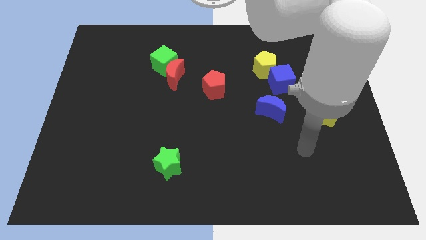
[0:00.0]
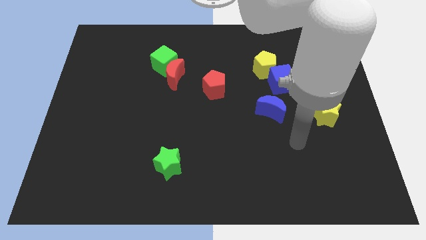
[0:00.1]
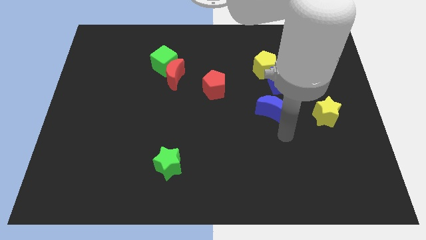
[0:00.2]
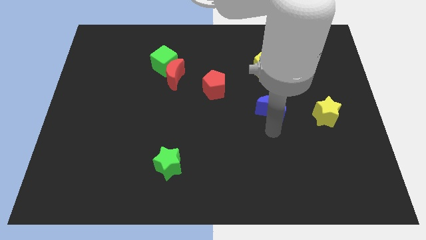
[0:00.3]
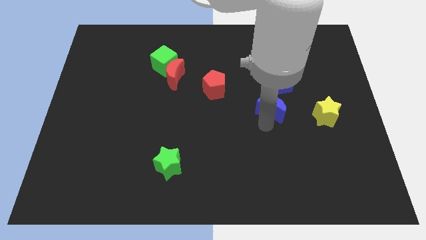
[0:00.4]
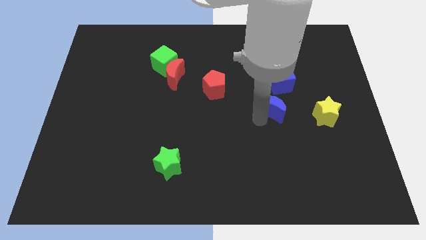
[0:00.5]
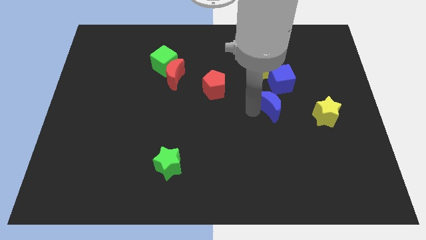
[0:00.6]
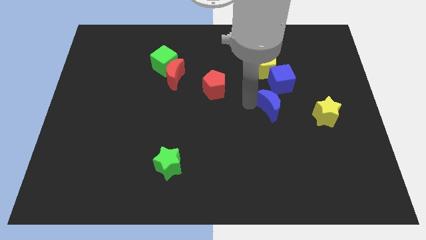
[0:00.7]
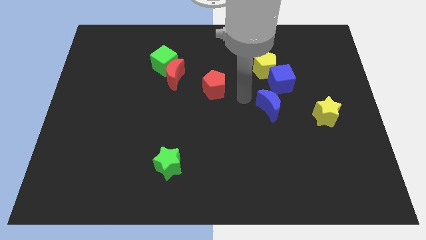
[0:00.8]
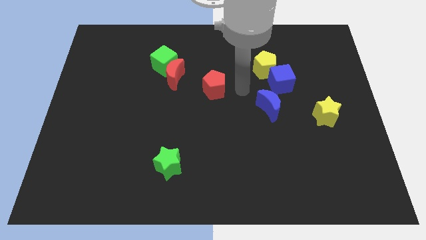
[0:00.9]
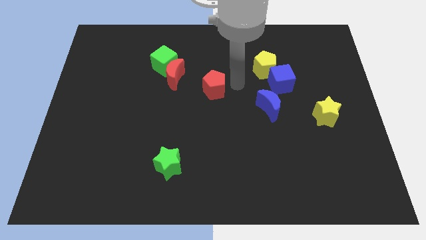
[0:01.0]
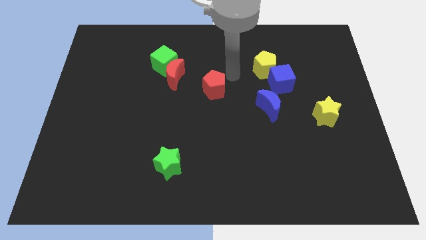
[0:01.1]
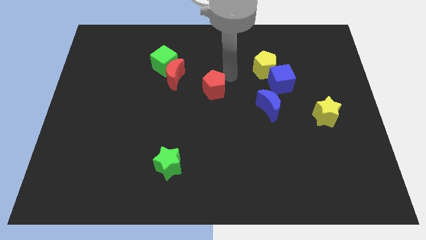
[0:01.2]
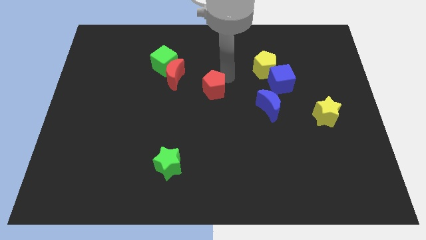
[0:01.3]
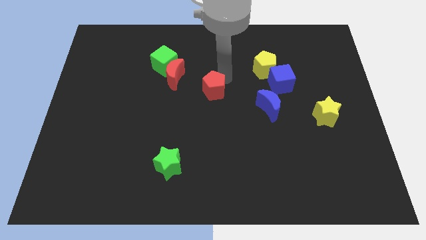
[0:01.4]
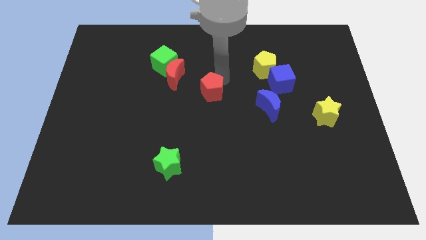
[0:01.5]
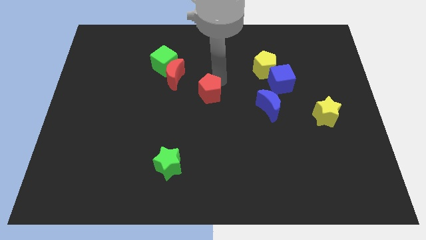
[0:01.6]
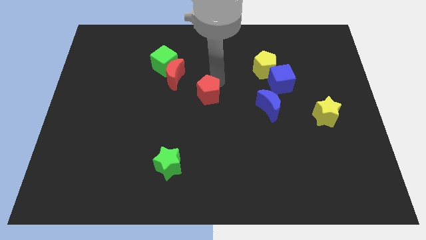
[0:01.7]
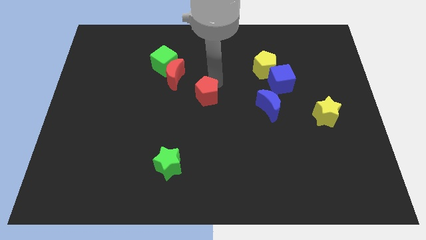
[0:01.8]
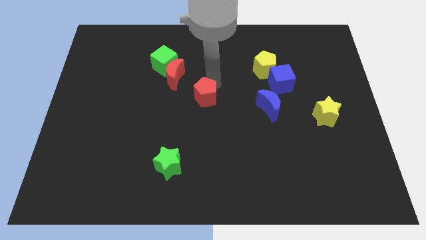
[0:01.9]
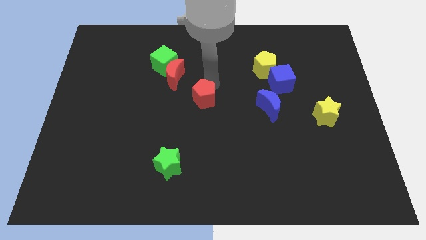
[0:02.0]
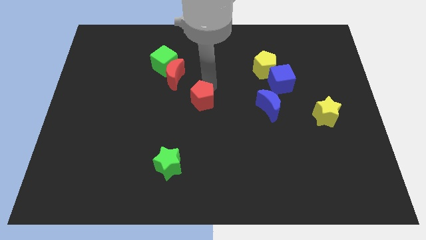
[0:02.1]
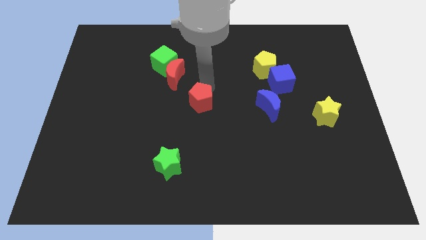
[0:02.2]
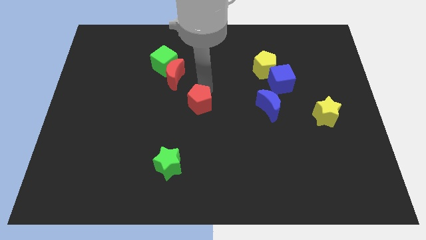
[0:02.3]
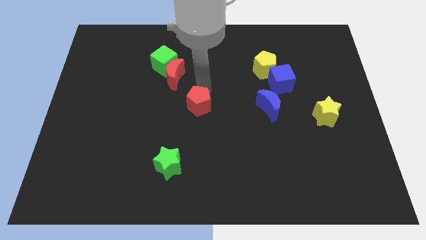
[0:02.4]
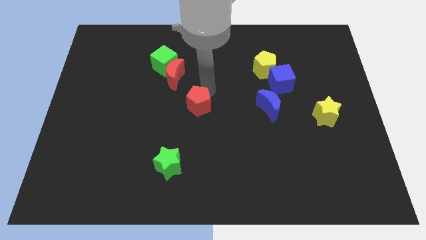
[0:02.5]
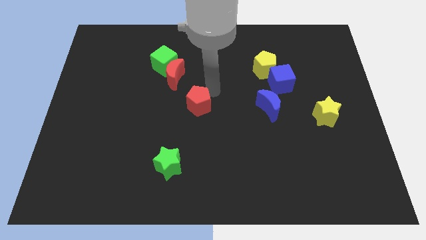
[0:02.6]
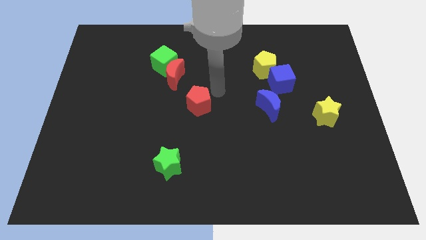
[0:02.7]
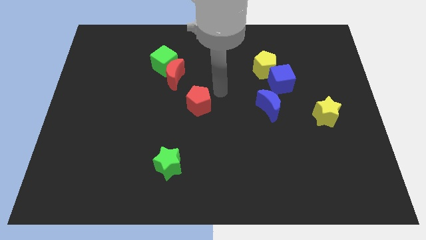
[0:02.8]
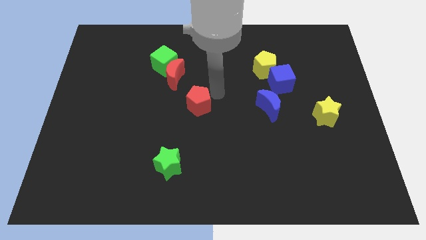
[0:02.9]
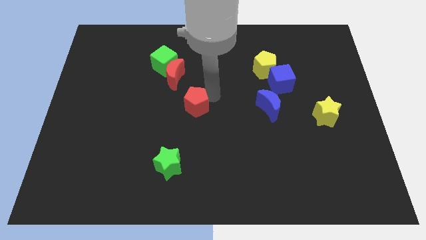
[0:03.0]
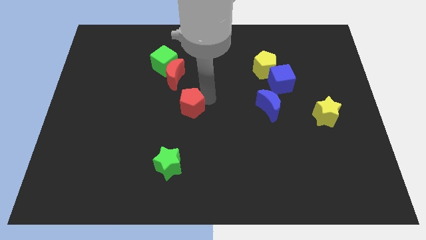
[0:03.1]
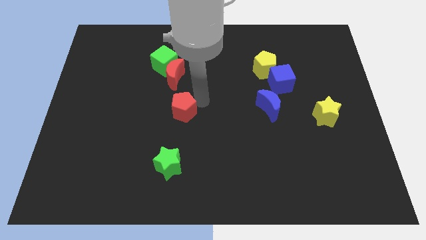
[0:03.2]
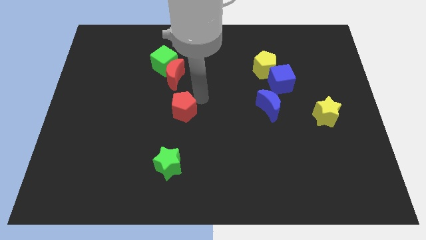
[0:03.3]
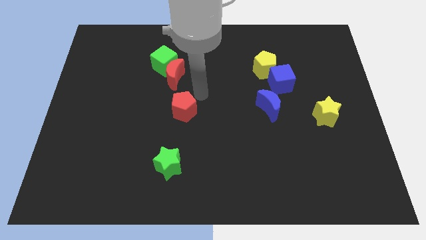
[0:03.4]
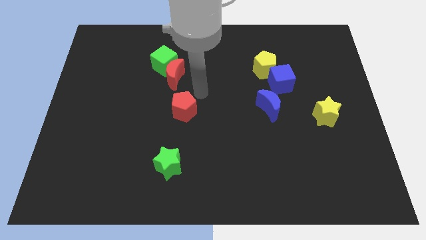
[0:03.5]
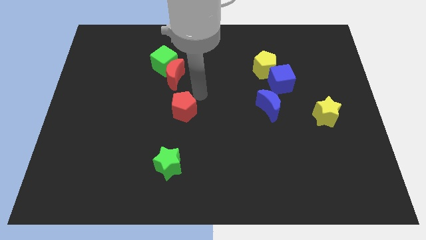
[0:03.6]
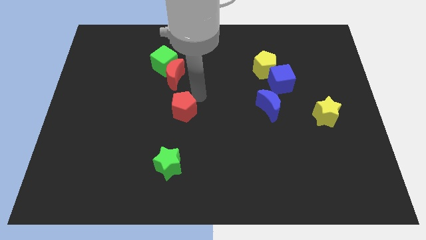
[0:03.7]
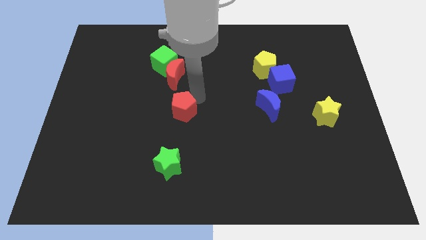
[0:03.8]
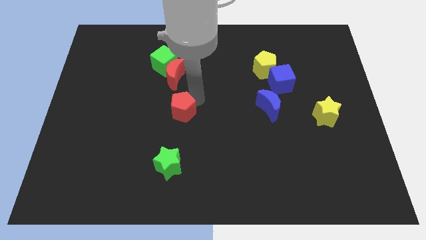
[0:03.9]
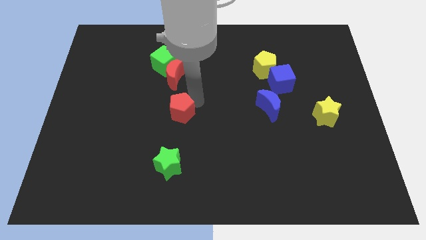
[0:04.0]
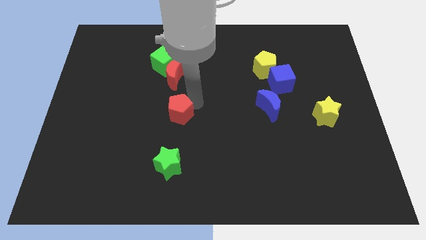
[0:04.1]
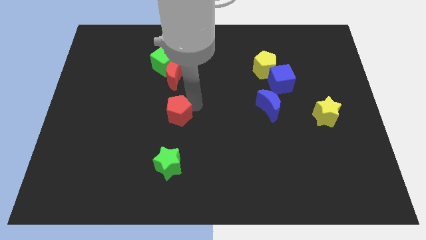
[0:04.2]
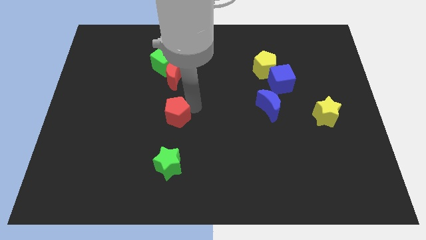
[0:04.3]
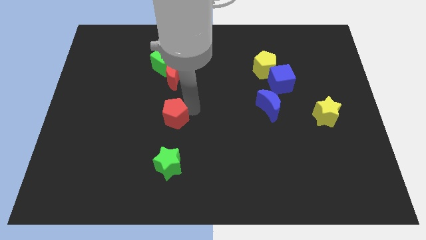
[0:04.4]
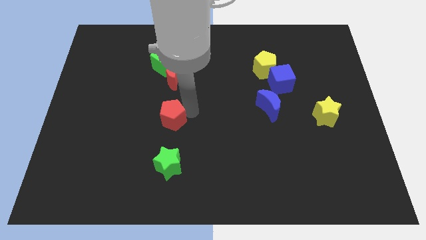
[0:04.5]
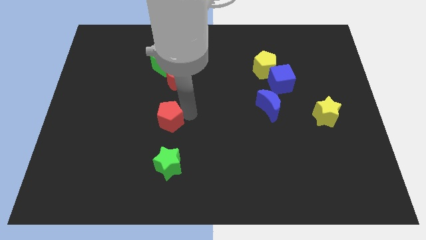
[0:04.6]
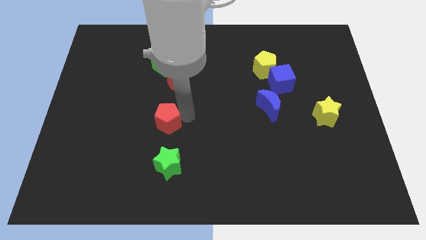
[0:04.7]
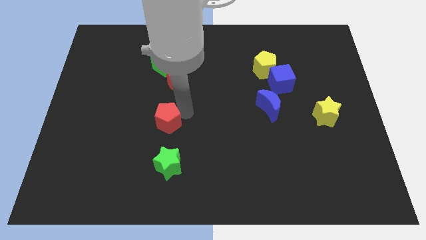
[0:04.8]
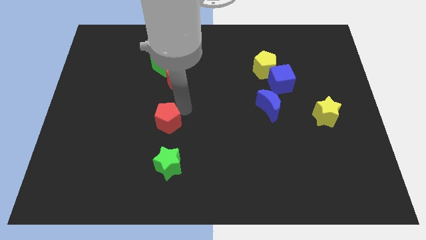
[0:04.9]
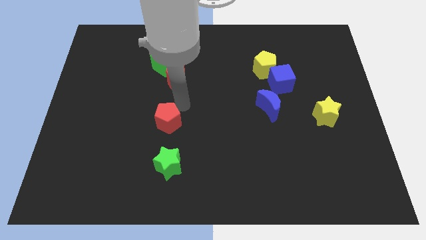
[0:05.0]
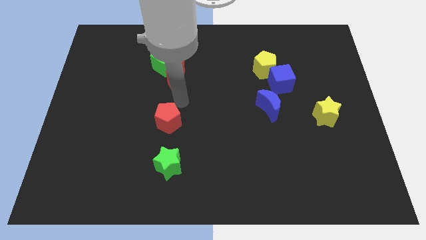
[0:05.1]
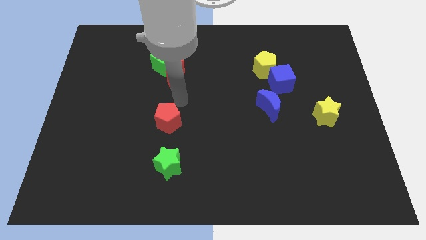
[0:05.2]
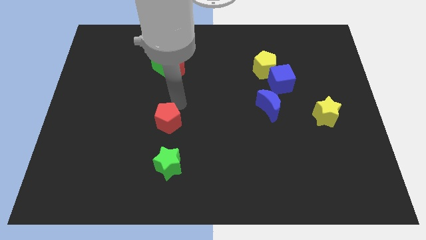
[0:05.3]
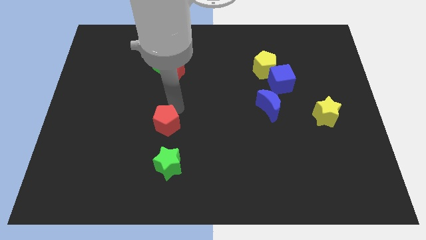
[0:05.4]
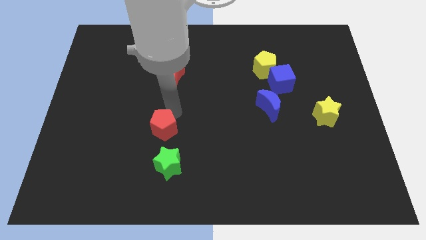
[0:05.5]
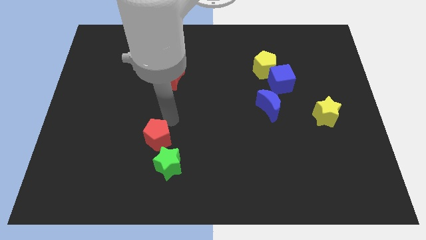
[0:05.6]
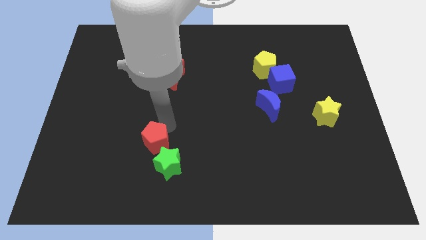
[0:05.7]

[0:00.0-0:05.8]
push the red pentagon downwards and to the left diagonally

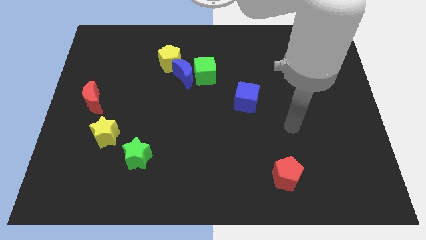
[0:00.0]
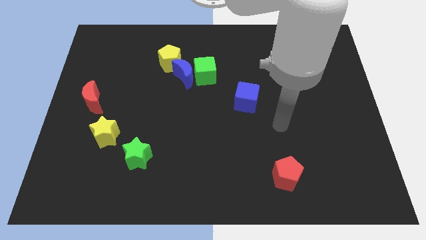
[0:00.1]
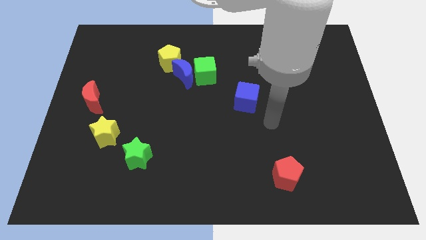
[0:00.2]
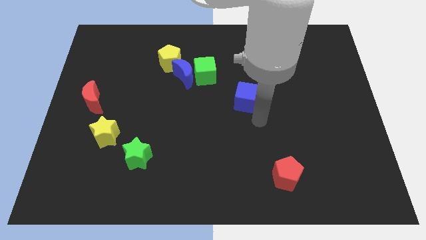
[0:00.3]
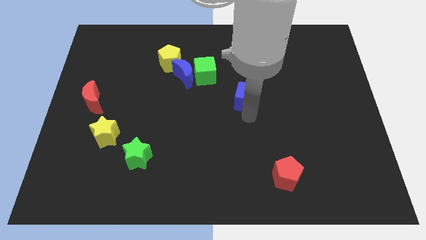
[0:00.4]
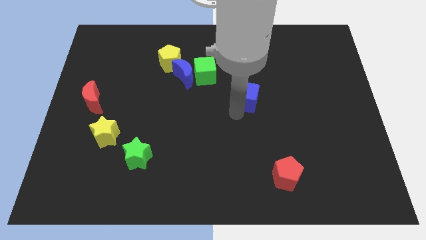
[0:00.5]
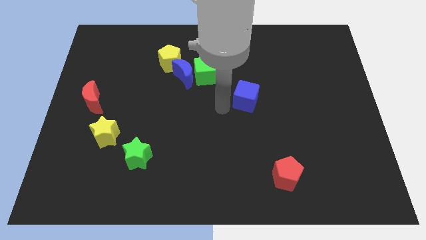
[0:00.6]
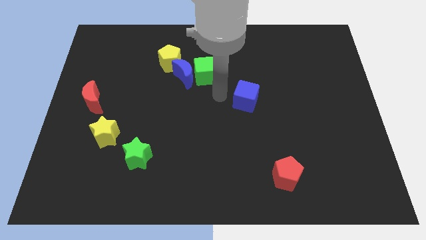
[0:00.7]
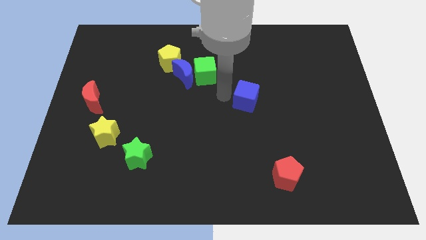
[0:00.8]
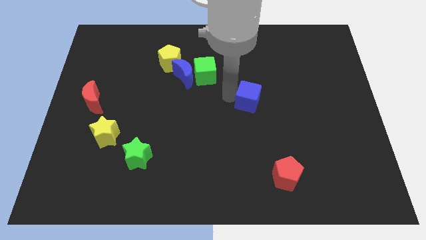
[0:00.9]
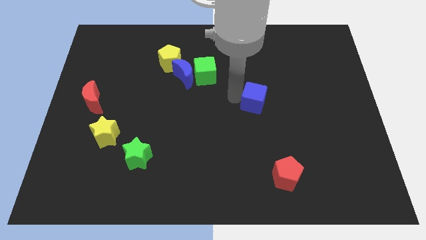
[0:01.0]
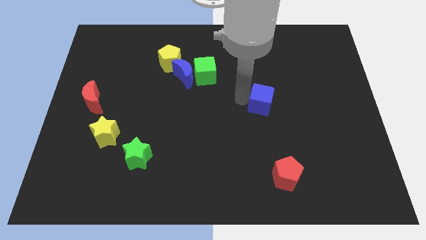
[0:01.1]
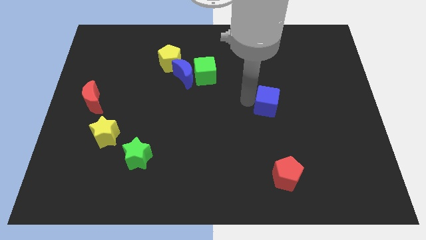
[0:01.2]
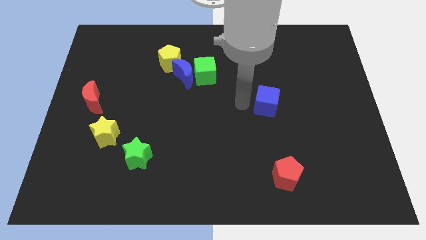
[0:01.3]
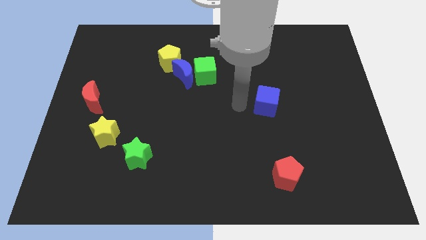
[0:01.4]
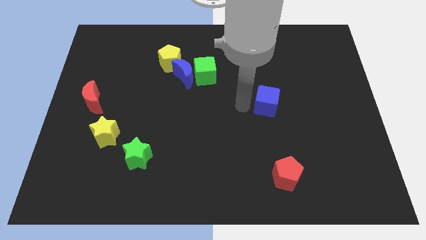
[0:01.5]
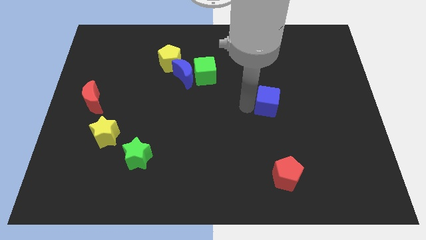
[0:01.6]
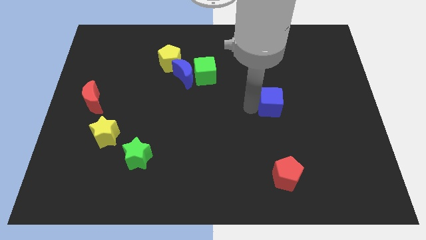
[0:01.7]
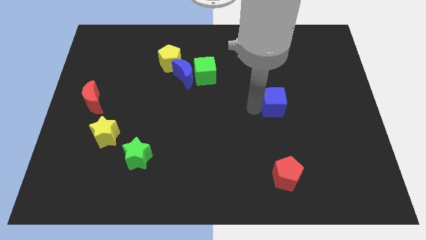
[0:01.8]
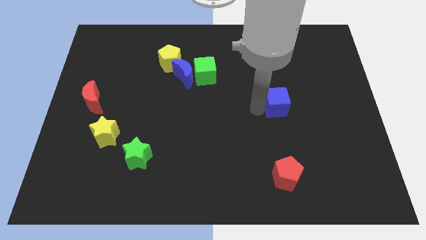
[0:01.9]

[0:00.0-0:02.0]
slide the blue cube somewhat right

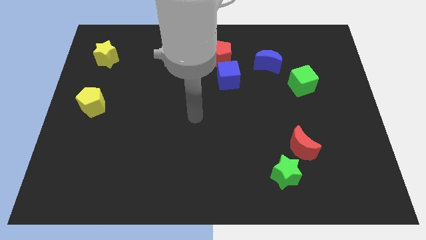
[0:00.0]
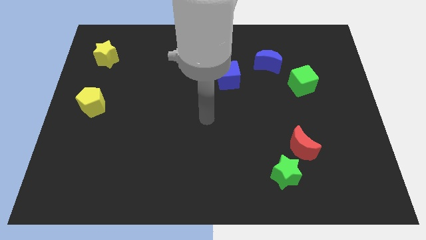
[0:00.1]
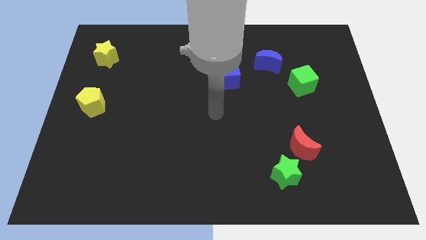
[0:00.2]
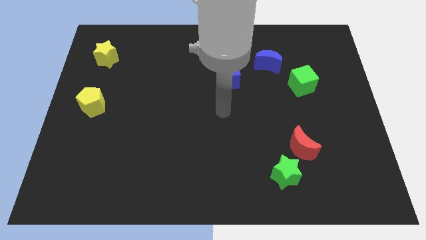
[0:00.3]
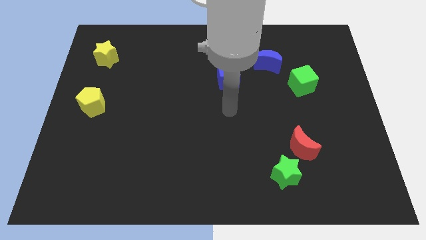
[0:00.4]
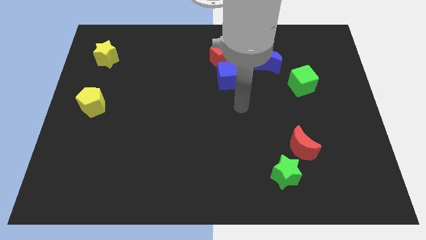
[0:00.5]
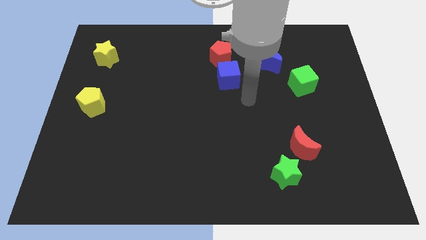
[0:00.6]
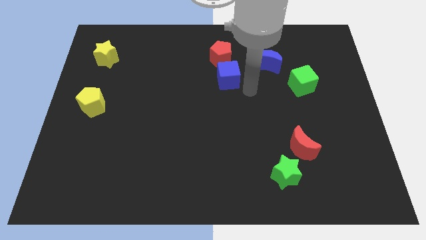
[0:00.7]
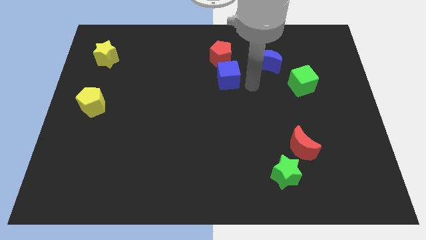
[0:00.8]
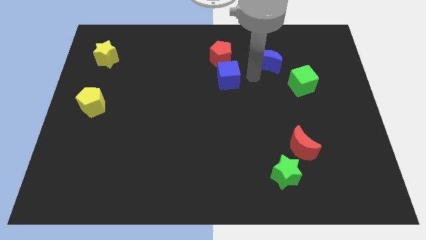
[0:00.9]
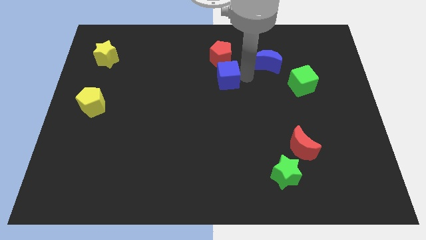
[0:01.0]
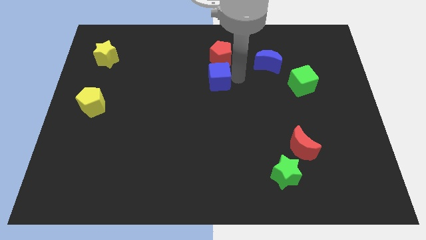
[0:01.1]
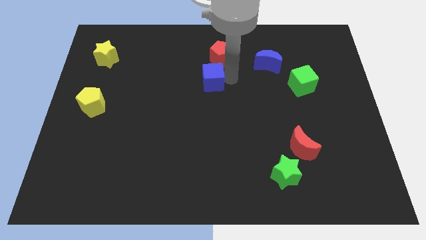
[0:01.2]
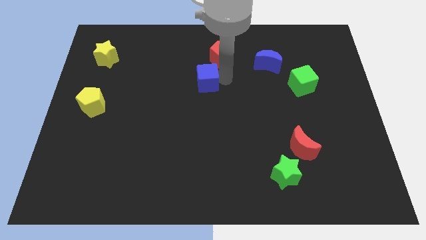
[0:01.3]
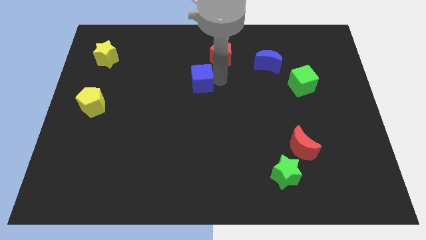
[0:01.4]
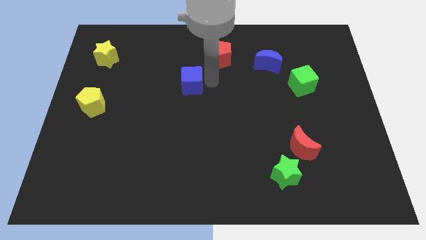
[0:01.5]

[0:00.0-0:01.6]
slightly move the blue cube left
